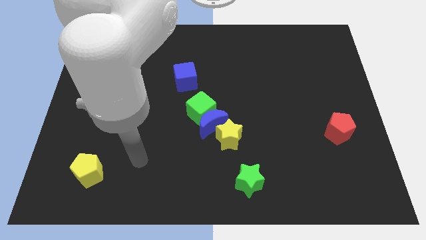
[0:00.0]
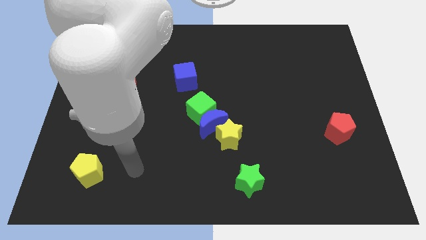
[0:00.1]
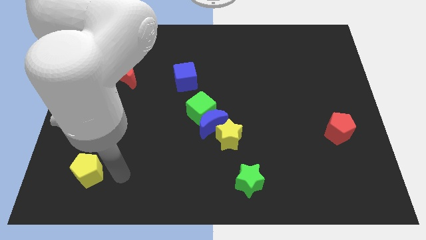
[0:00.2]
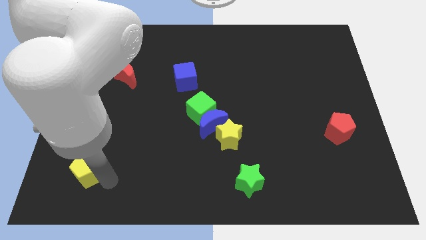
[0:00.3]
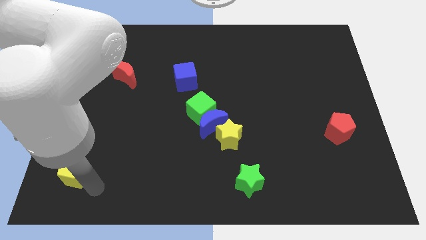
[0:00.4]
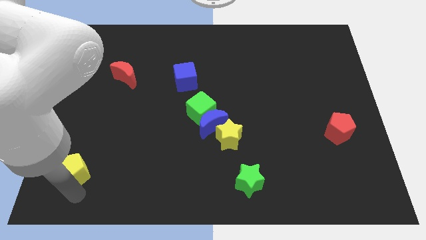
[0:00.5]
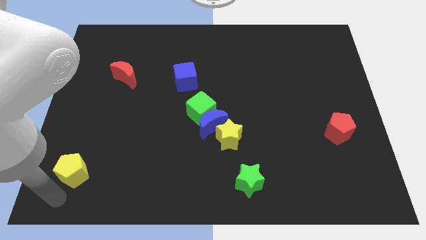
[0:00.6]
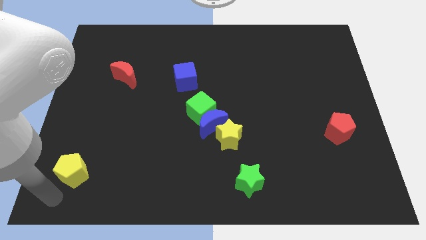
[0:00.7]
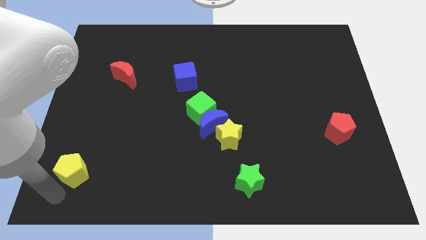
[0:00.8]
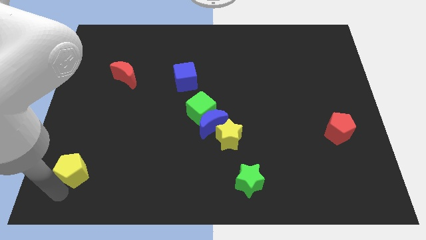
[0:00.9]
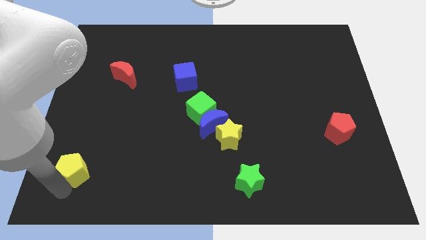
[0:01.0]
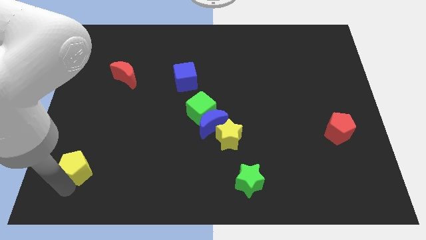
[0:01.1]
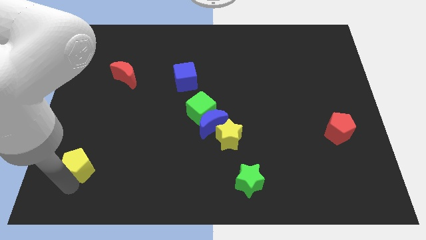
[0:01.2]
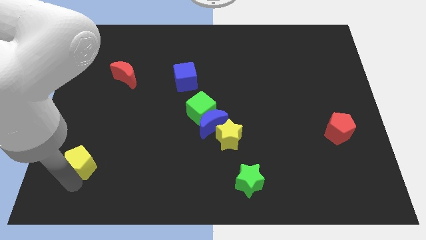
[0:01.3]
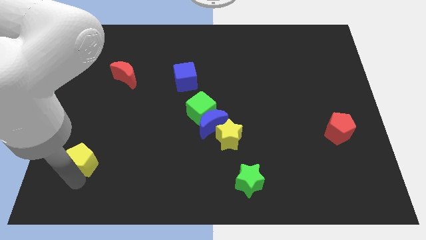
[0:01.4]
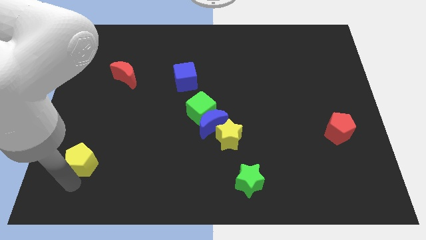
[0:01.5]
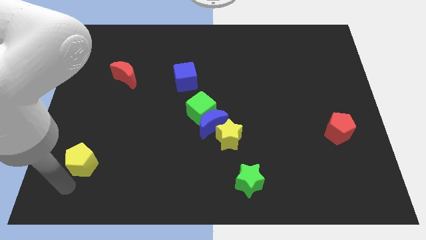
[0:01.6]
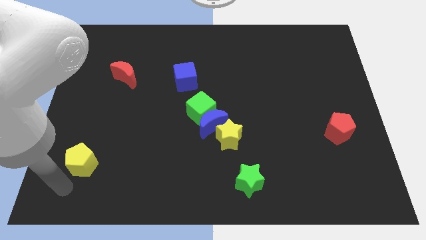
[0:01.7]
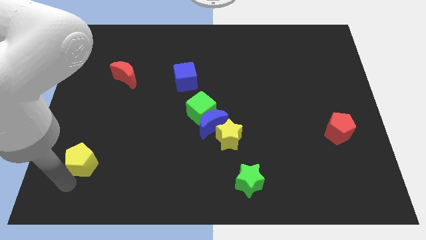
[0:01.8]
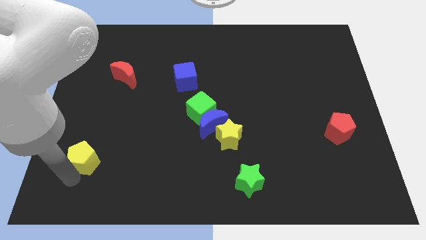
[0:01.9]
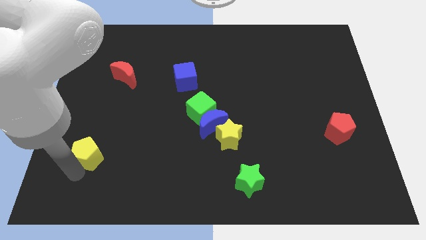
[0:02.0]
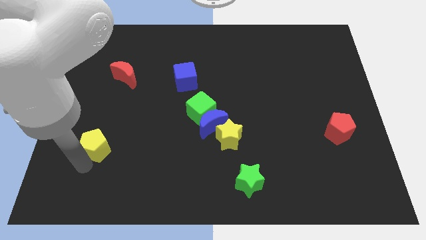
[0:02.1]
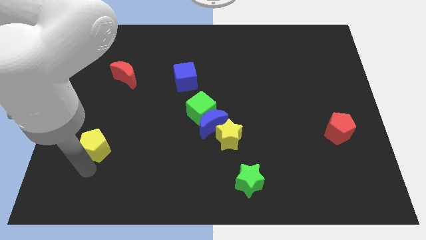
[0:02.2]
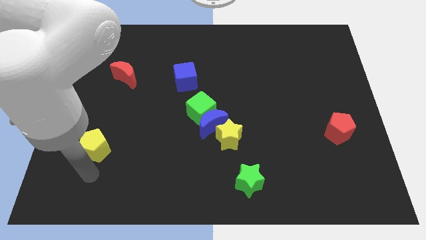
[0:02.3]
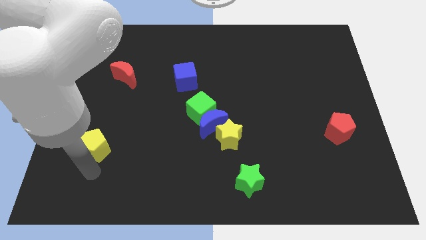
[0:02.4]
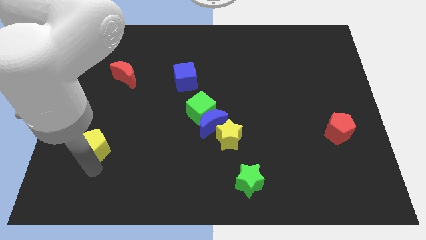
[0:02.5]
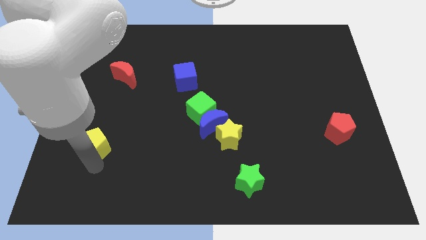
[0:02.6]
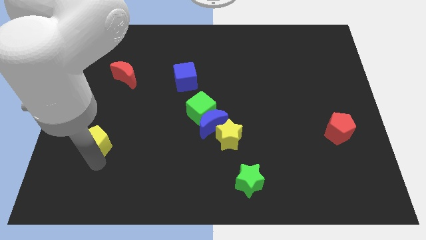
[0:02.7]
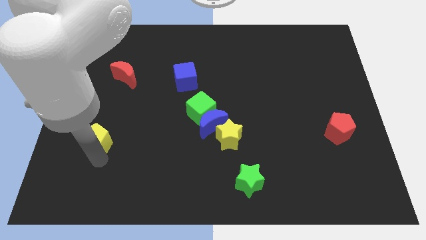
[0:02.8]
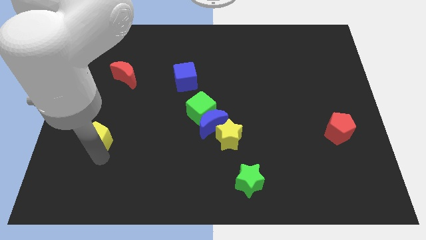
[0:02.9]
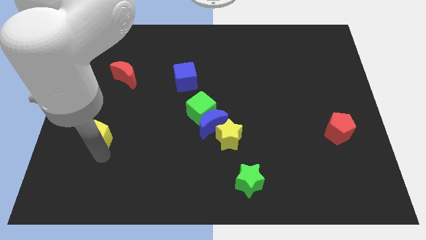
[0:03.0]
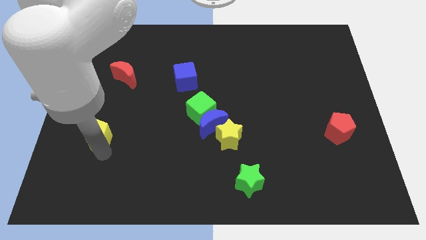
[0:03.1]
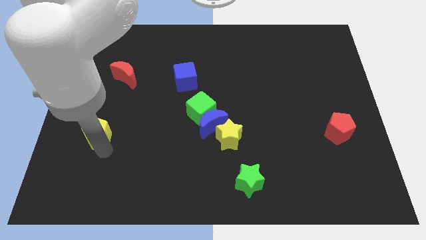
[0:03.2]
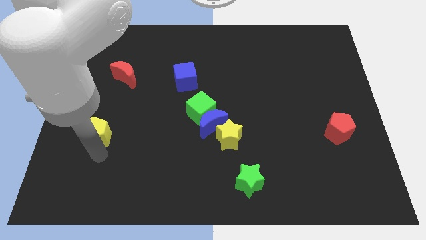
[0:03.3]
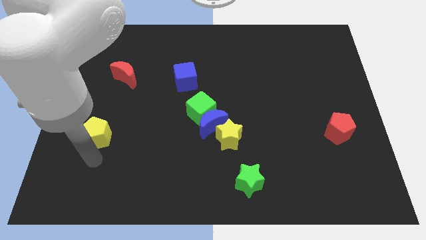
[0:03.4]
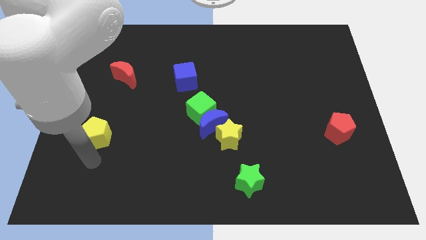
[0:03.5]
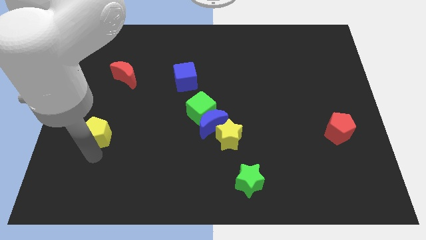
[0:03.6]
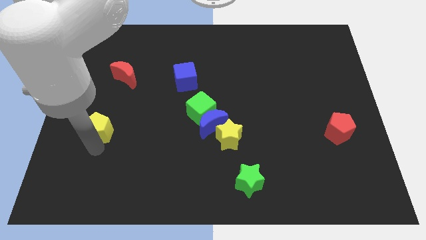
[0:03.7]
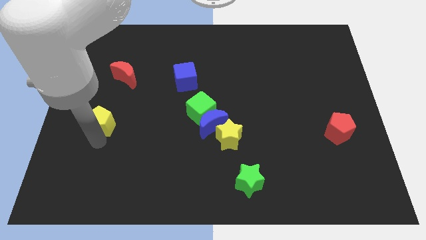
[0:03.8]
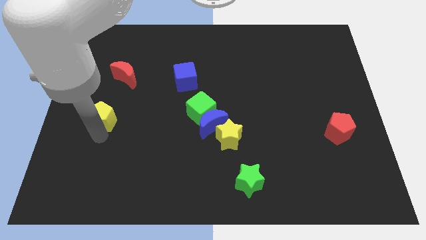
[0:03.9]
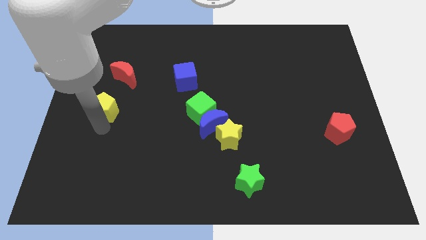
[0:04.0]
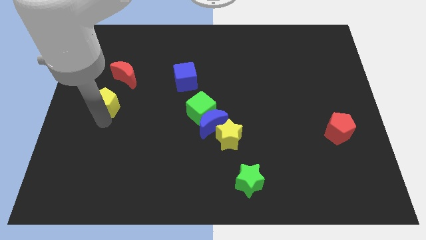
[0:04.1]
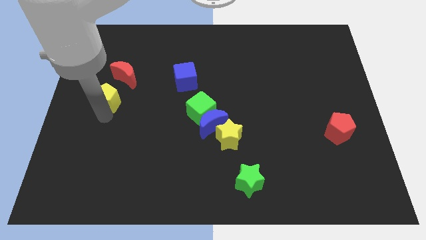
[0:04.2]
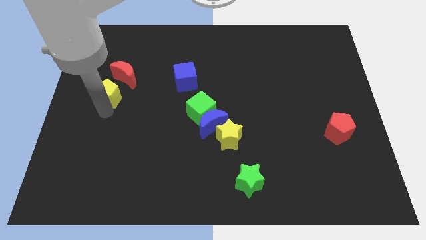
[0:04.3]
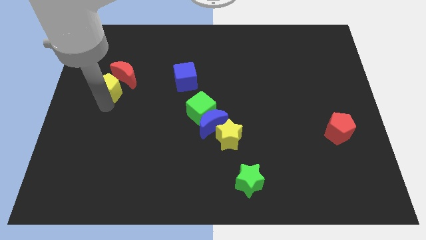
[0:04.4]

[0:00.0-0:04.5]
move the yellow pentagon to the red moon

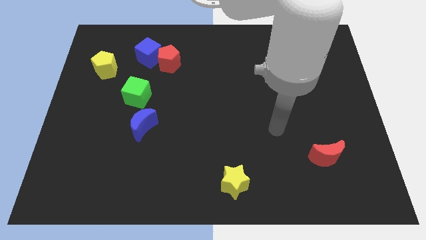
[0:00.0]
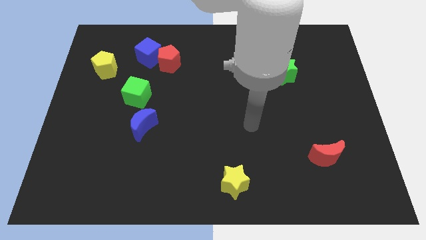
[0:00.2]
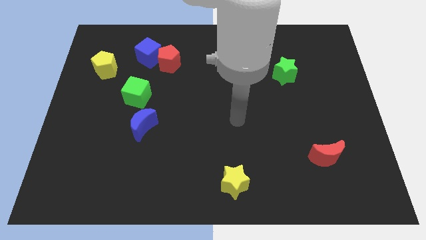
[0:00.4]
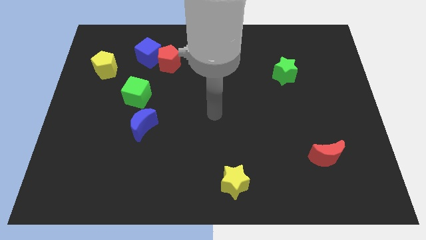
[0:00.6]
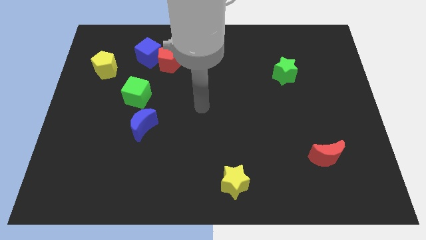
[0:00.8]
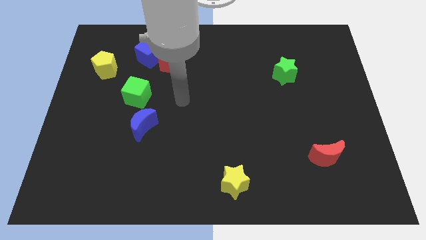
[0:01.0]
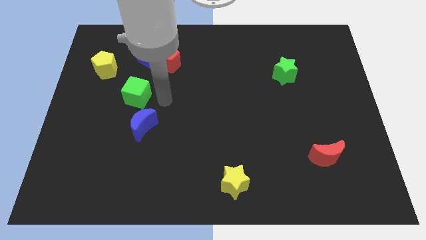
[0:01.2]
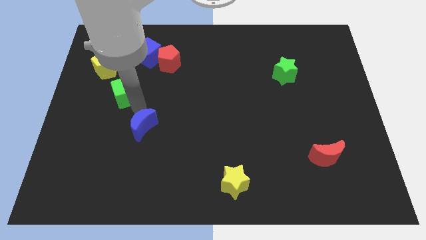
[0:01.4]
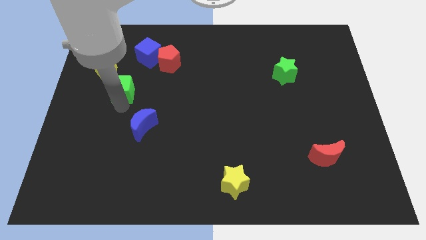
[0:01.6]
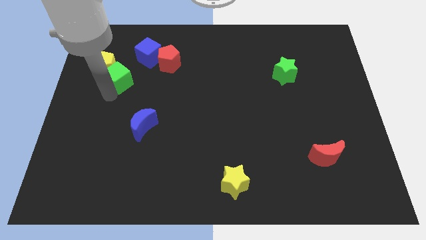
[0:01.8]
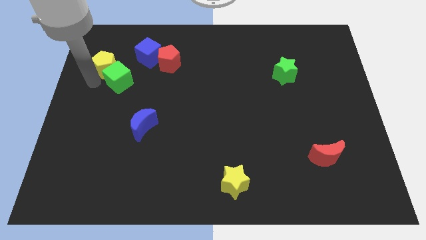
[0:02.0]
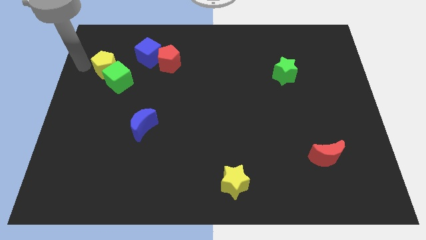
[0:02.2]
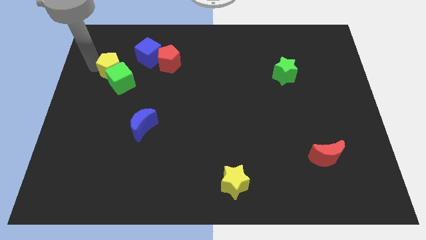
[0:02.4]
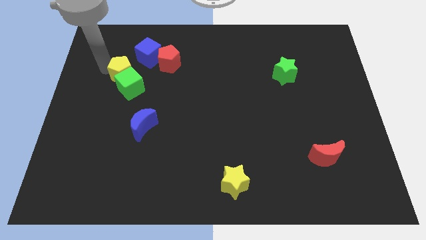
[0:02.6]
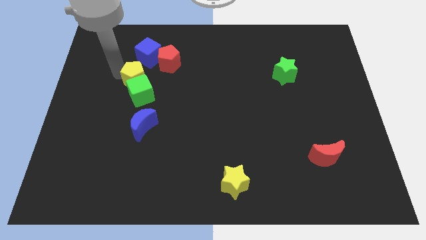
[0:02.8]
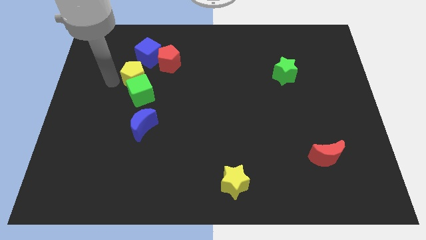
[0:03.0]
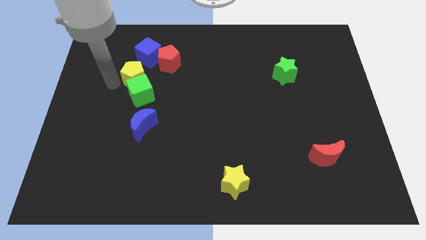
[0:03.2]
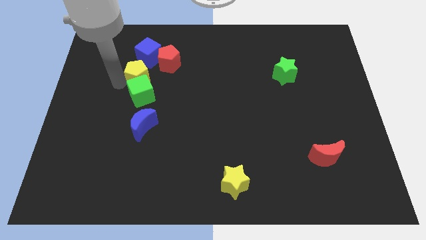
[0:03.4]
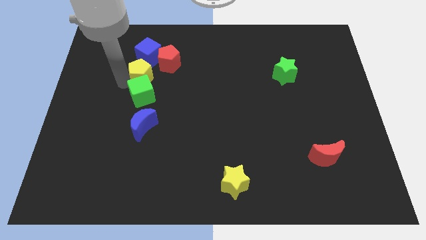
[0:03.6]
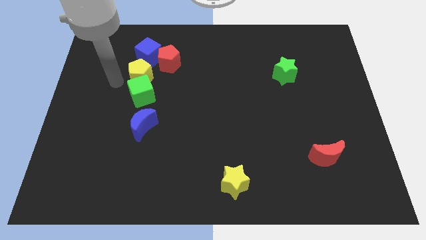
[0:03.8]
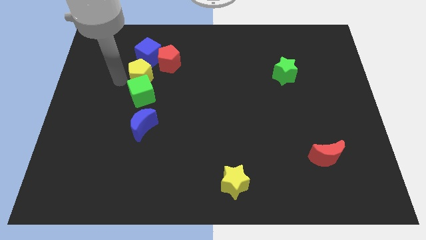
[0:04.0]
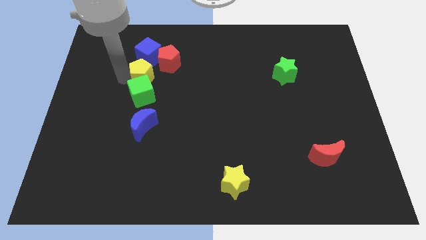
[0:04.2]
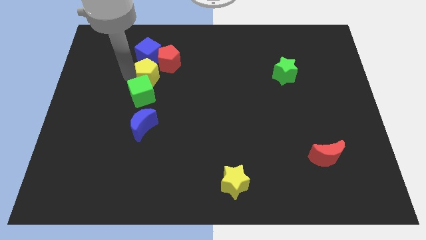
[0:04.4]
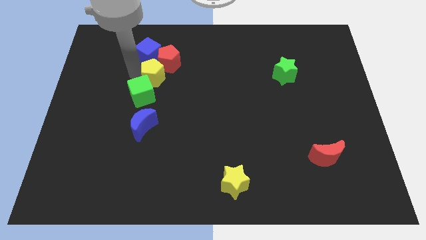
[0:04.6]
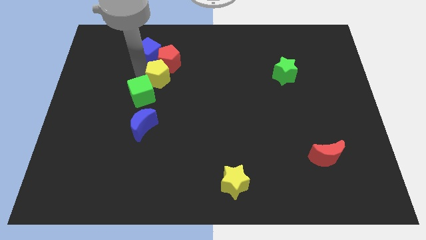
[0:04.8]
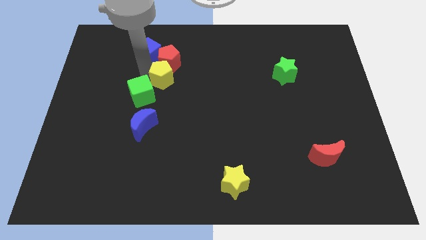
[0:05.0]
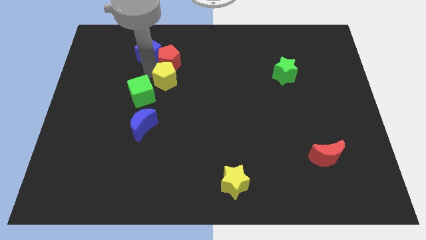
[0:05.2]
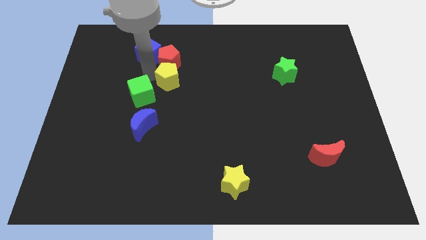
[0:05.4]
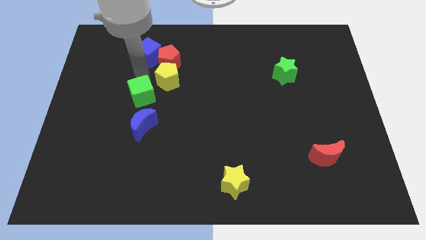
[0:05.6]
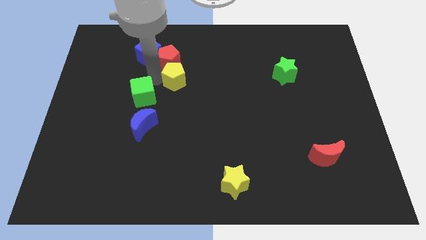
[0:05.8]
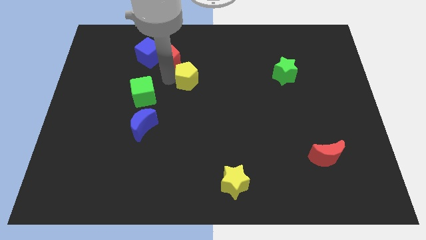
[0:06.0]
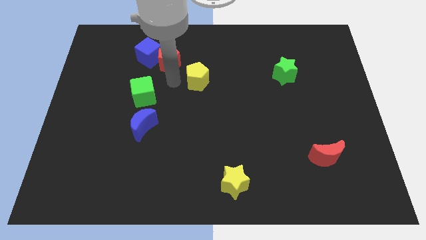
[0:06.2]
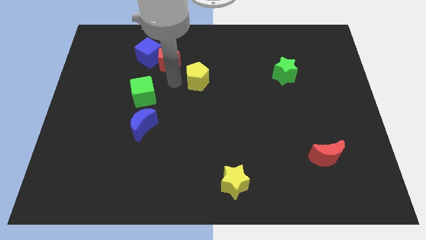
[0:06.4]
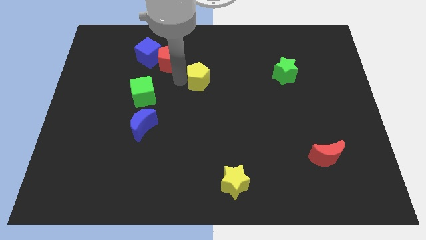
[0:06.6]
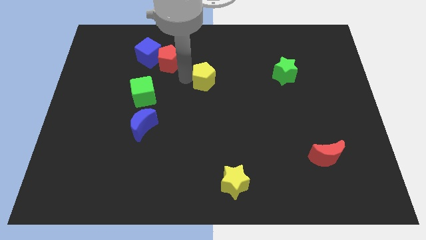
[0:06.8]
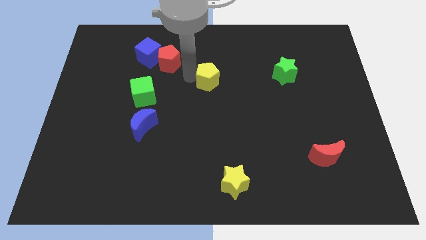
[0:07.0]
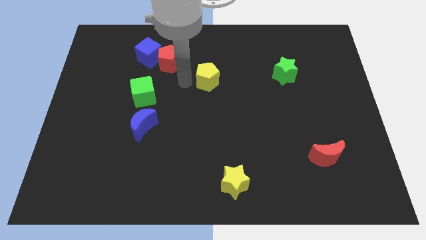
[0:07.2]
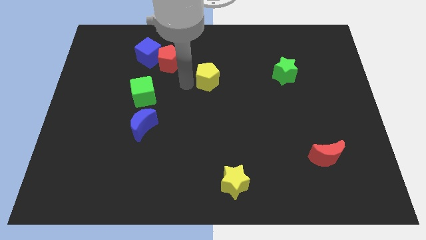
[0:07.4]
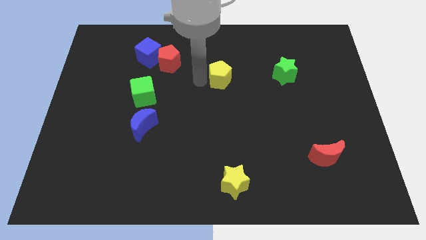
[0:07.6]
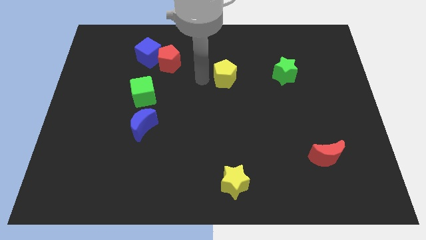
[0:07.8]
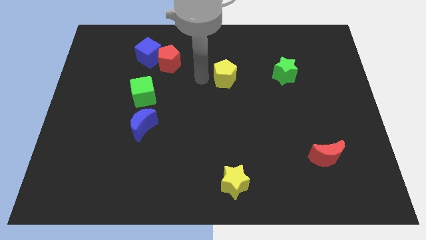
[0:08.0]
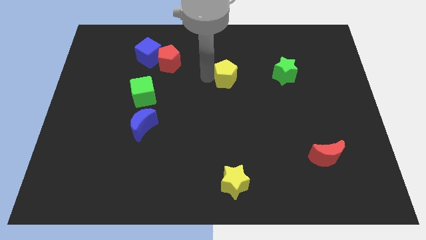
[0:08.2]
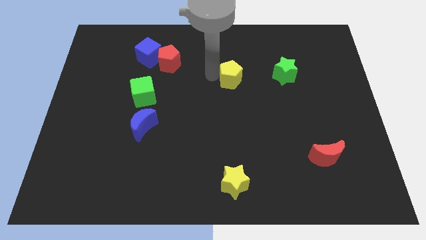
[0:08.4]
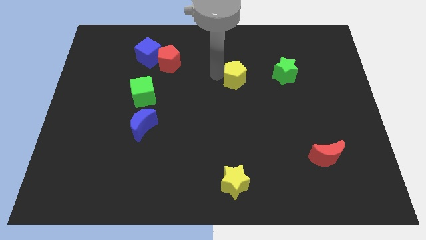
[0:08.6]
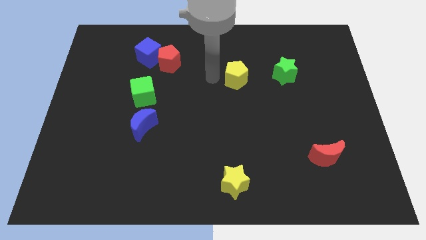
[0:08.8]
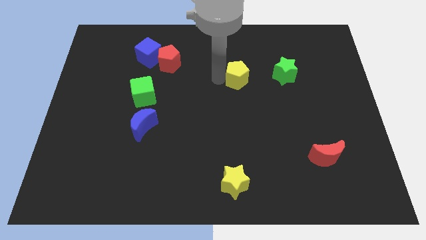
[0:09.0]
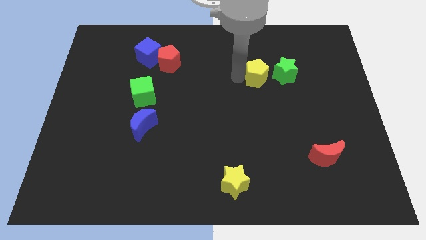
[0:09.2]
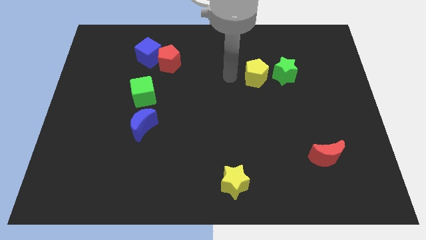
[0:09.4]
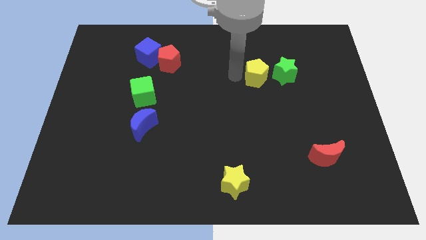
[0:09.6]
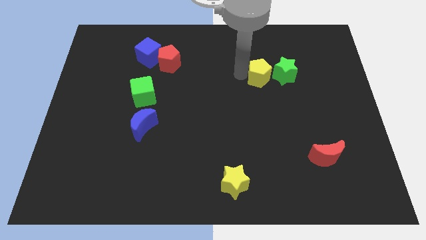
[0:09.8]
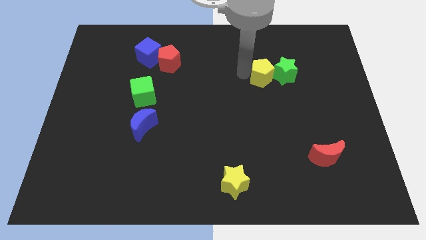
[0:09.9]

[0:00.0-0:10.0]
move the yellow pentagon close to the green star
